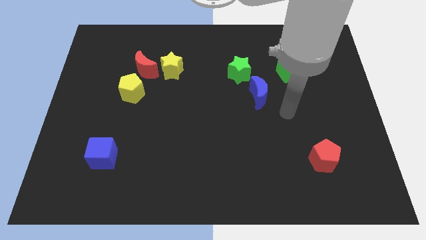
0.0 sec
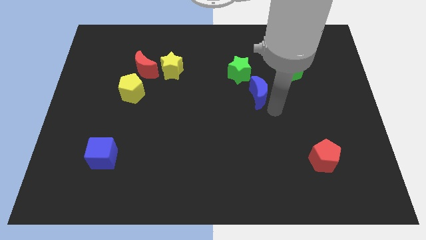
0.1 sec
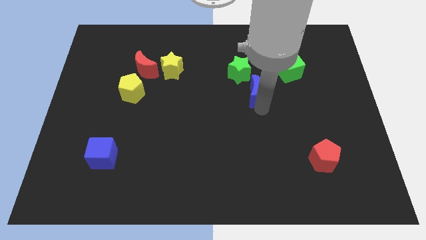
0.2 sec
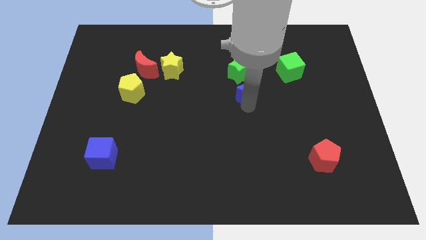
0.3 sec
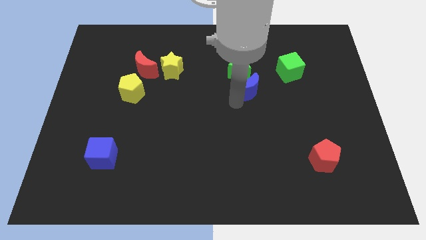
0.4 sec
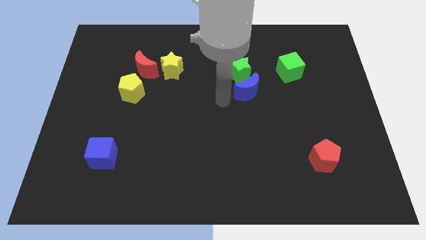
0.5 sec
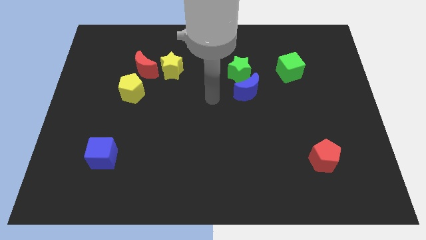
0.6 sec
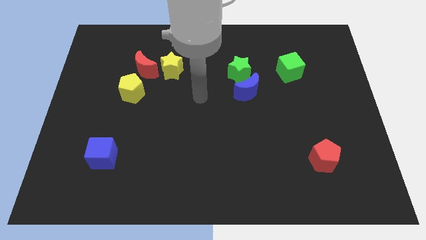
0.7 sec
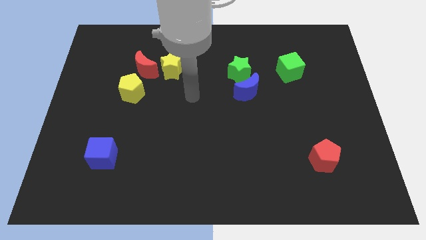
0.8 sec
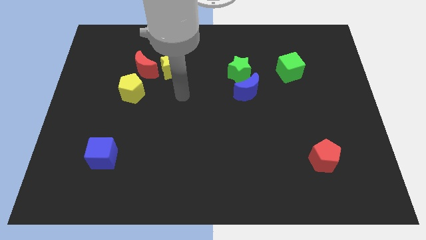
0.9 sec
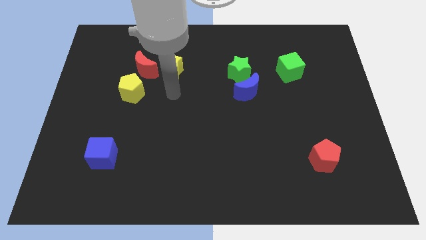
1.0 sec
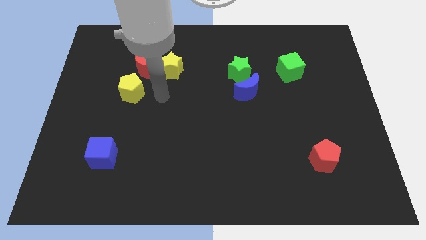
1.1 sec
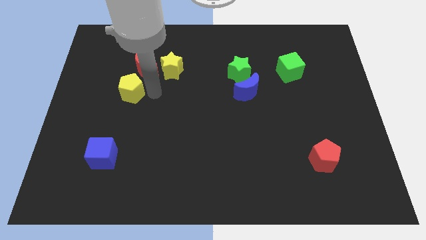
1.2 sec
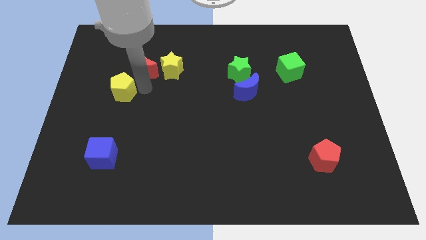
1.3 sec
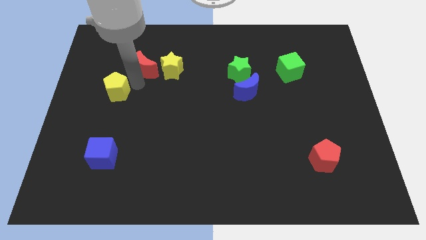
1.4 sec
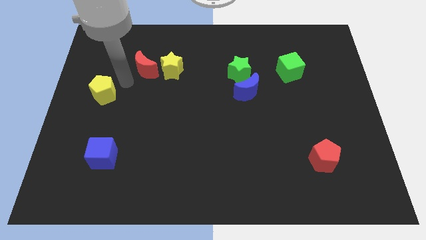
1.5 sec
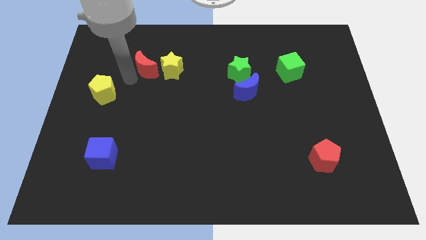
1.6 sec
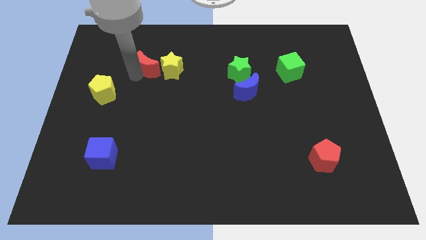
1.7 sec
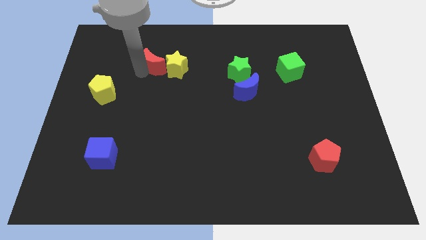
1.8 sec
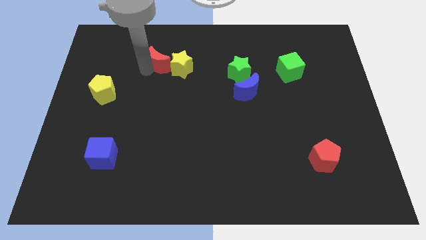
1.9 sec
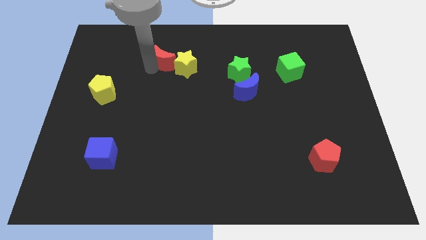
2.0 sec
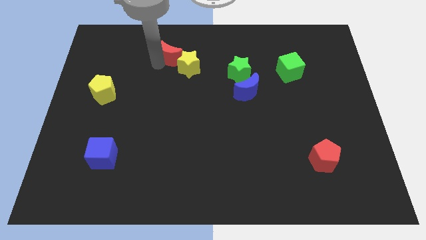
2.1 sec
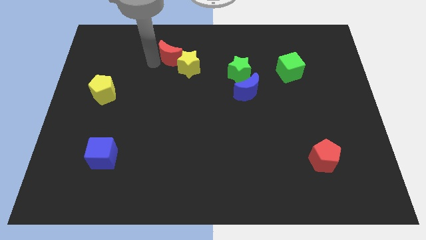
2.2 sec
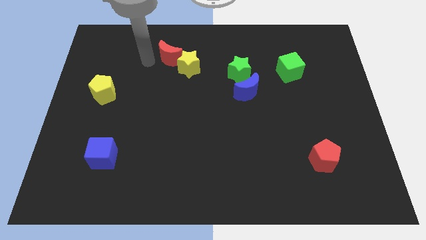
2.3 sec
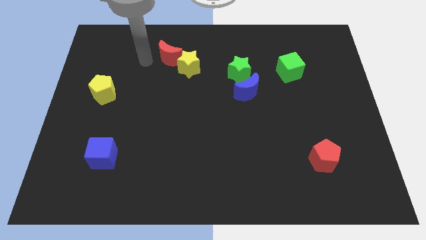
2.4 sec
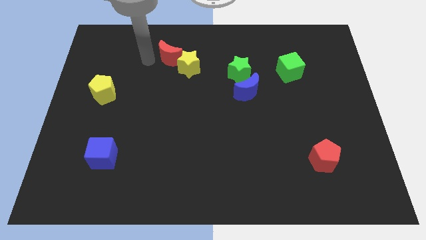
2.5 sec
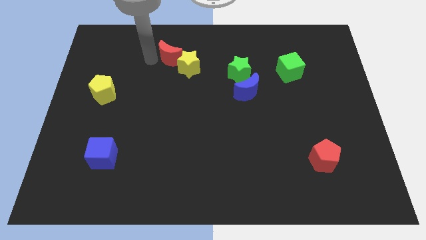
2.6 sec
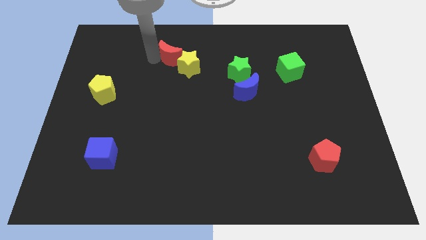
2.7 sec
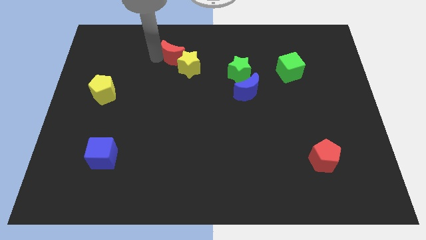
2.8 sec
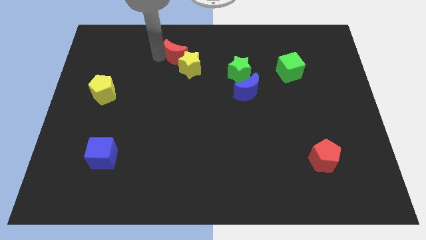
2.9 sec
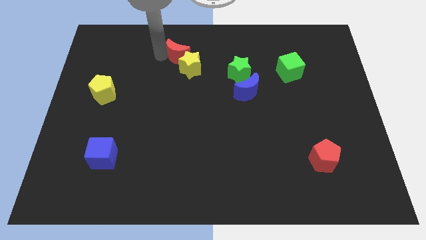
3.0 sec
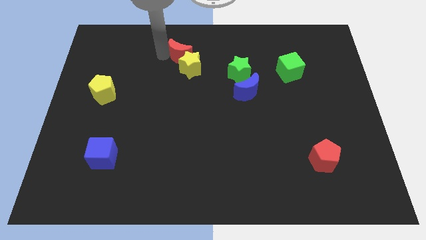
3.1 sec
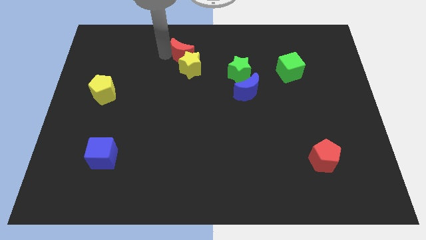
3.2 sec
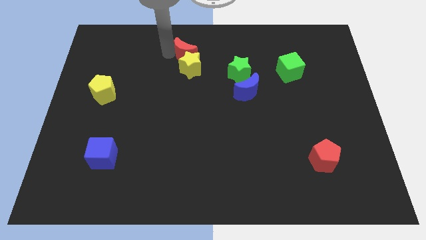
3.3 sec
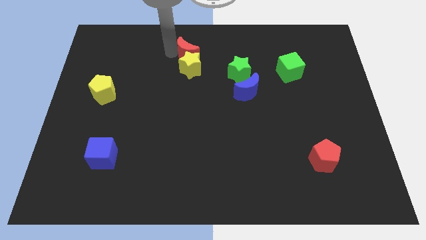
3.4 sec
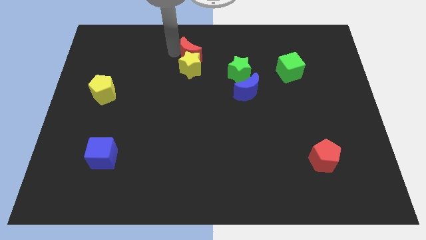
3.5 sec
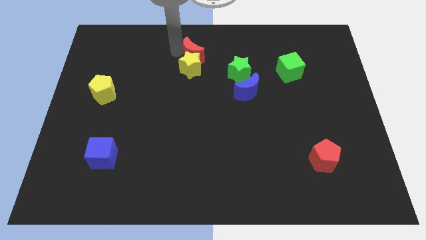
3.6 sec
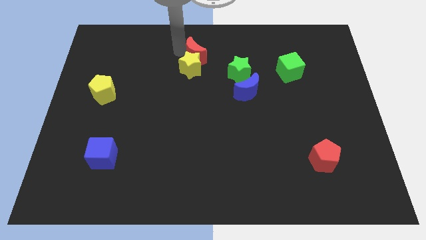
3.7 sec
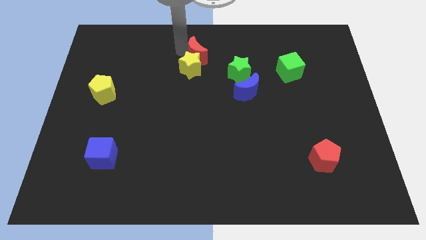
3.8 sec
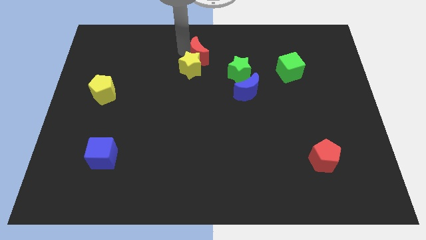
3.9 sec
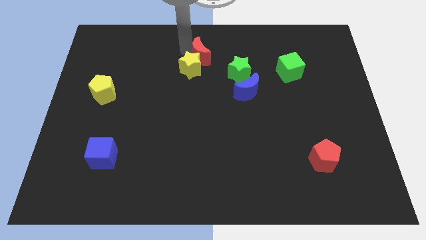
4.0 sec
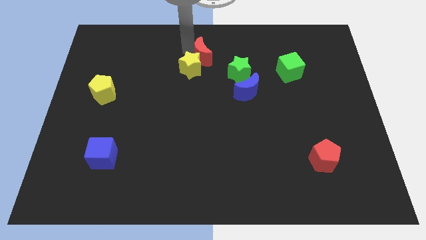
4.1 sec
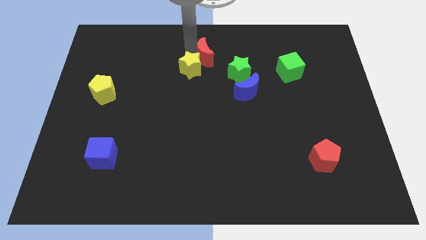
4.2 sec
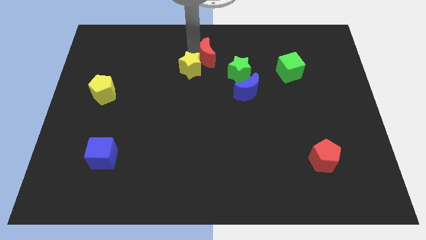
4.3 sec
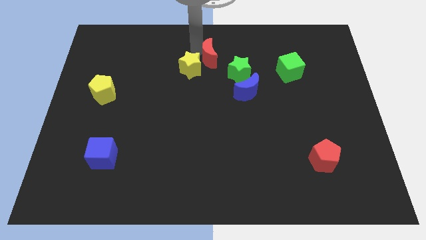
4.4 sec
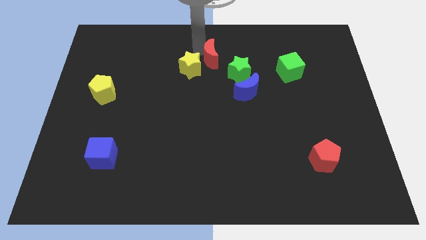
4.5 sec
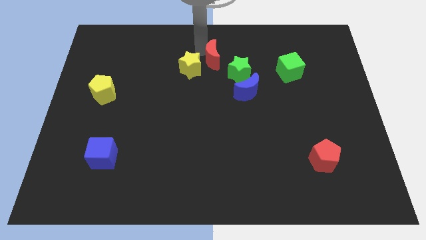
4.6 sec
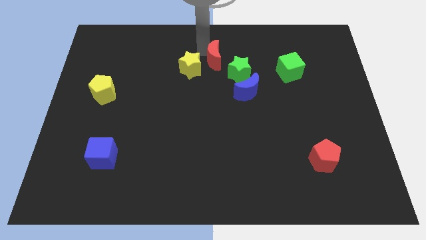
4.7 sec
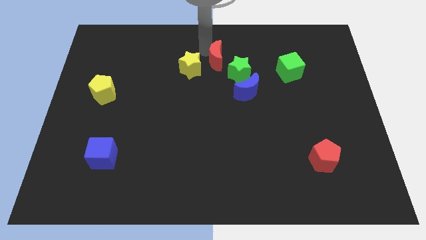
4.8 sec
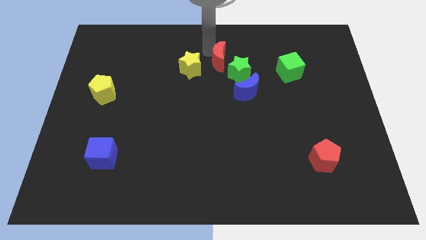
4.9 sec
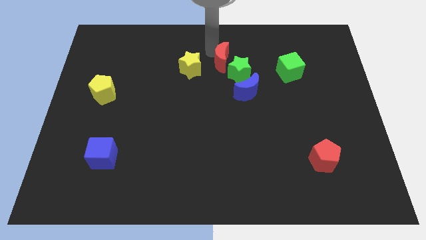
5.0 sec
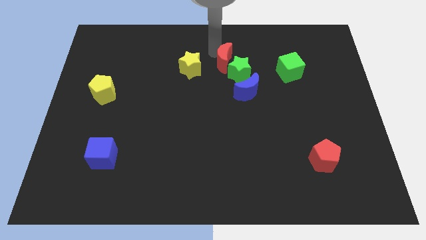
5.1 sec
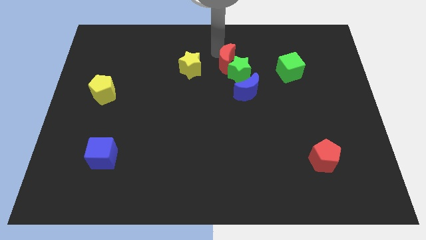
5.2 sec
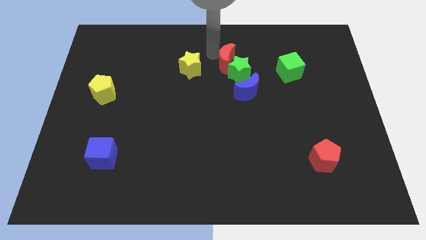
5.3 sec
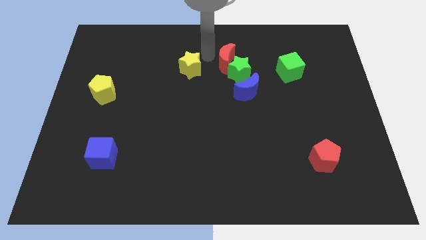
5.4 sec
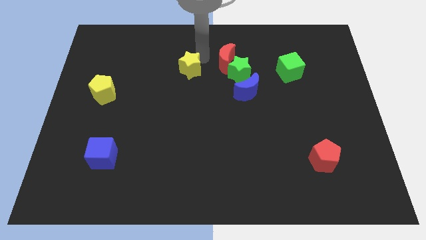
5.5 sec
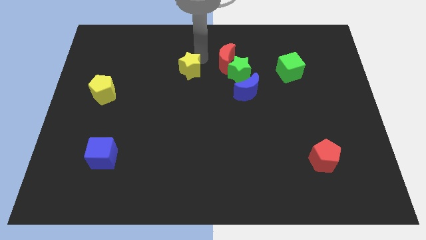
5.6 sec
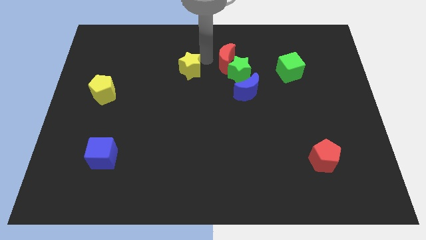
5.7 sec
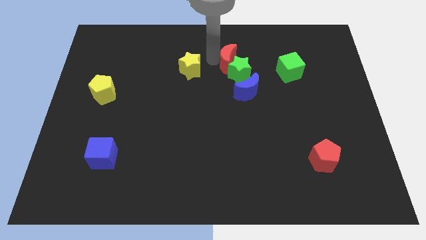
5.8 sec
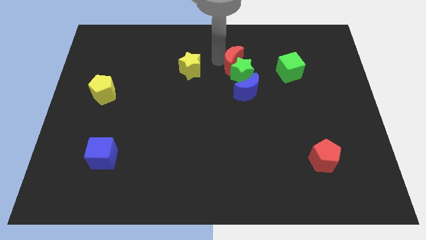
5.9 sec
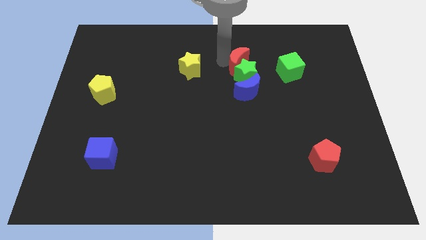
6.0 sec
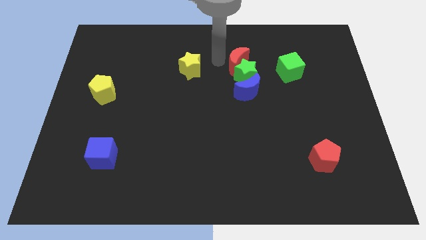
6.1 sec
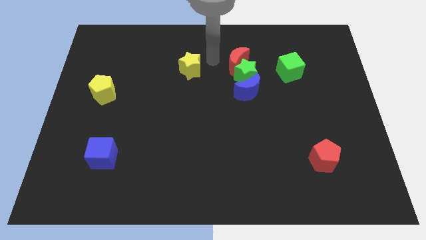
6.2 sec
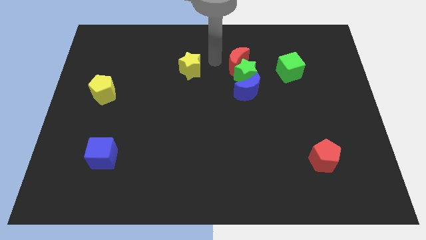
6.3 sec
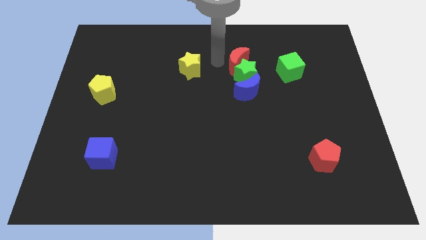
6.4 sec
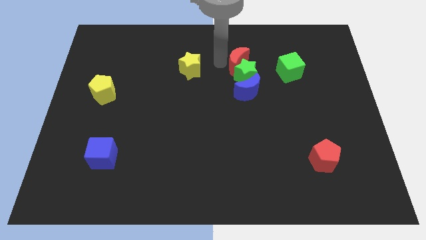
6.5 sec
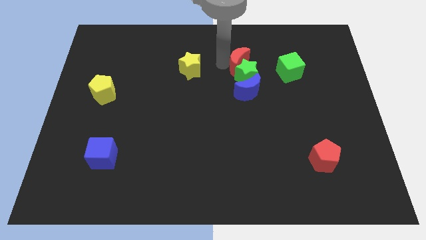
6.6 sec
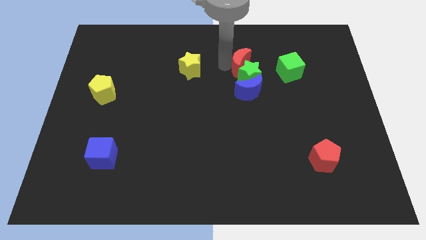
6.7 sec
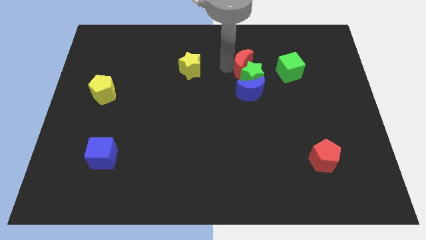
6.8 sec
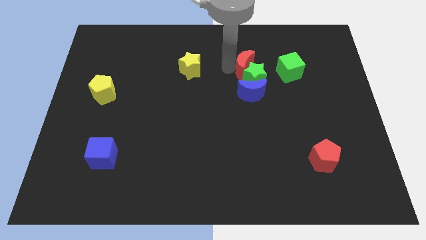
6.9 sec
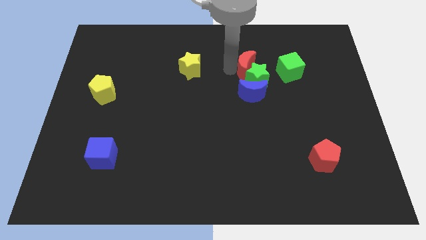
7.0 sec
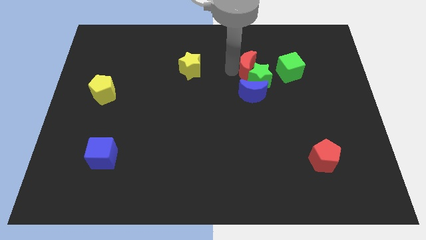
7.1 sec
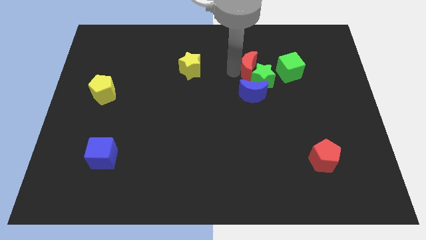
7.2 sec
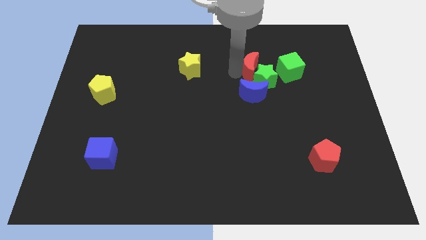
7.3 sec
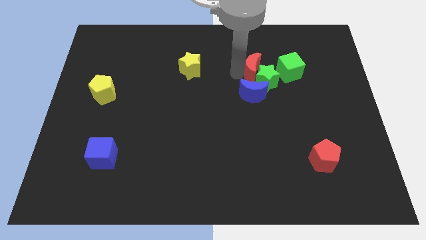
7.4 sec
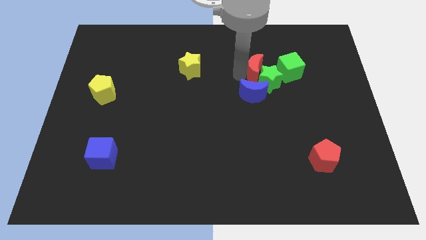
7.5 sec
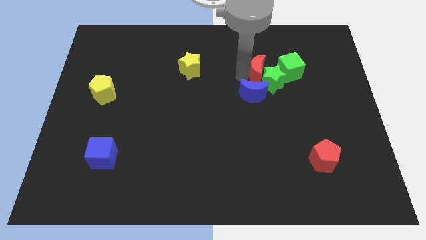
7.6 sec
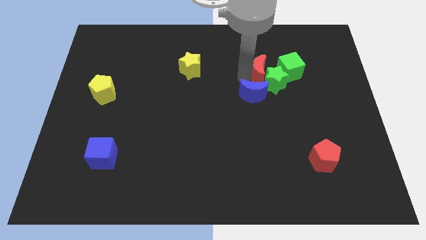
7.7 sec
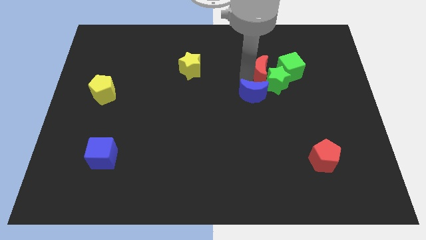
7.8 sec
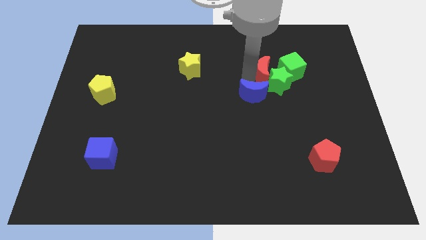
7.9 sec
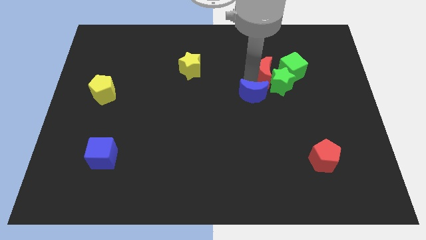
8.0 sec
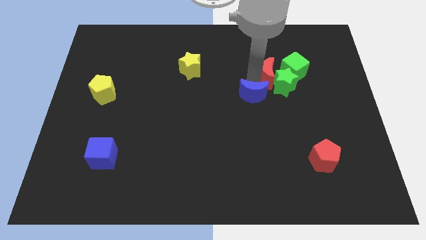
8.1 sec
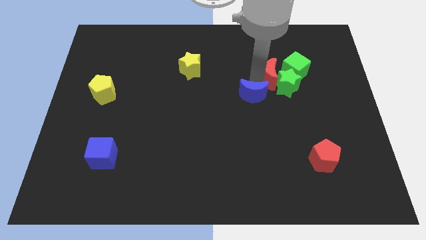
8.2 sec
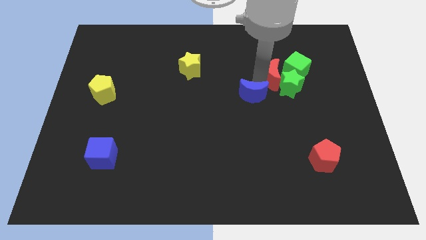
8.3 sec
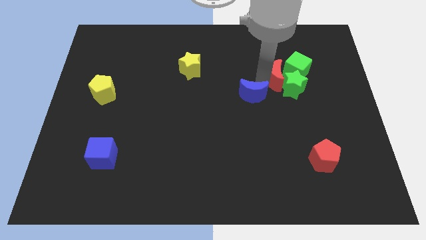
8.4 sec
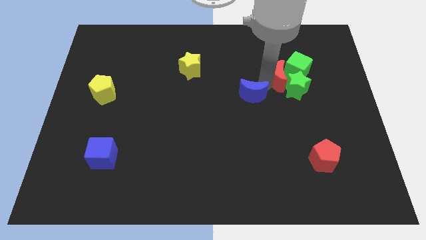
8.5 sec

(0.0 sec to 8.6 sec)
move the red moon to the green cube
